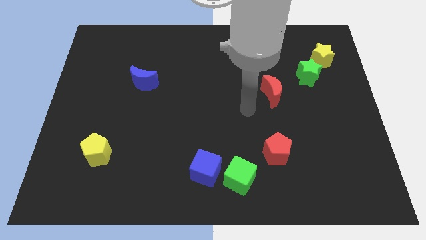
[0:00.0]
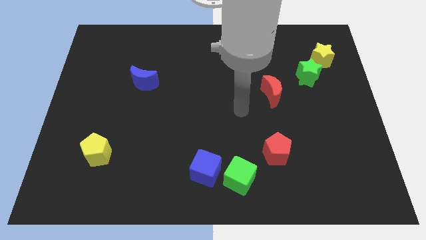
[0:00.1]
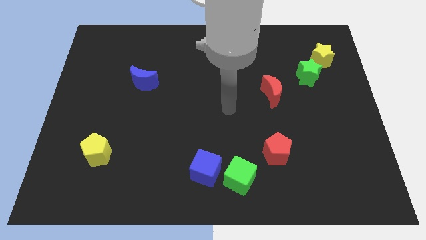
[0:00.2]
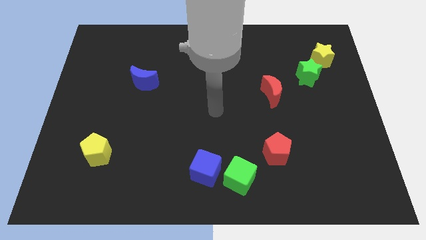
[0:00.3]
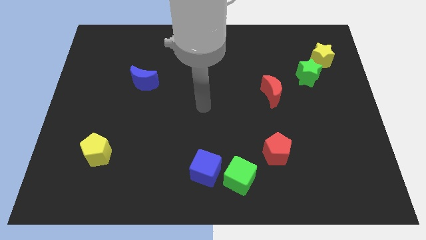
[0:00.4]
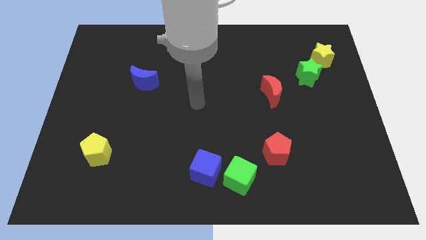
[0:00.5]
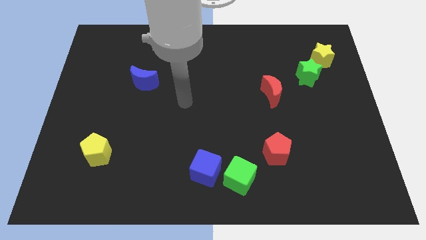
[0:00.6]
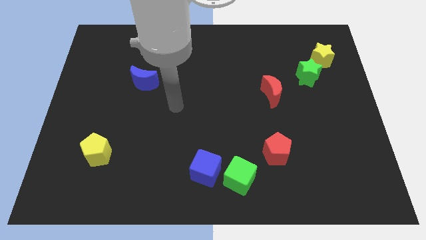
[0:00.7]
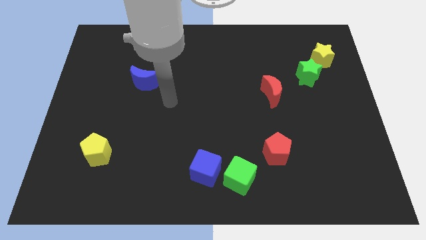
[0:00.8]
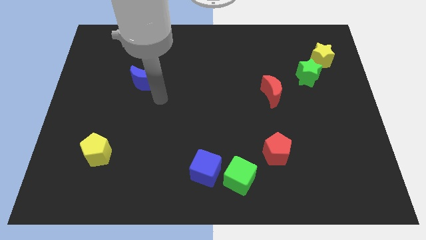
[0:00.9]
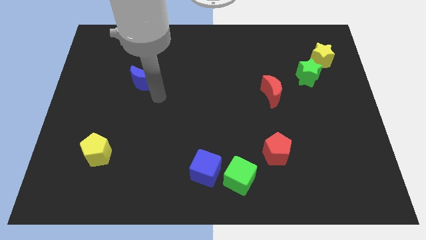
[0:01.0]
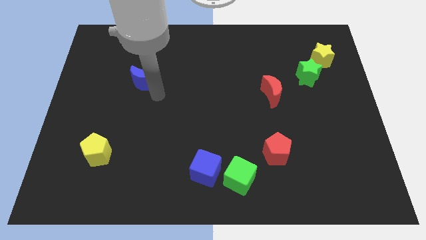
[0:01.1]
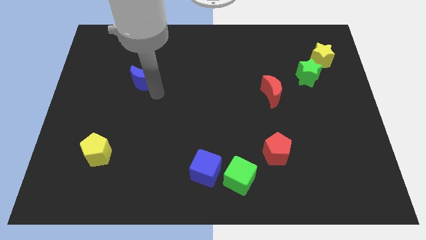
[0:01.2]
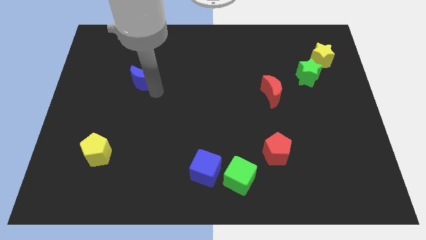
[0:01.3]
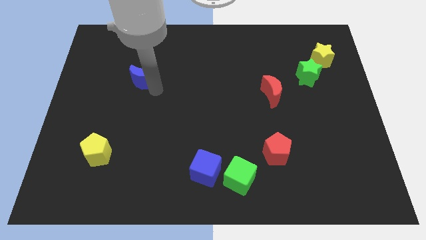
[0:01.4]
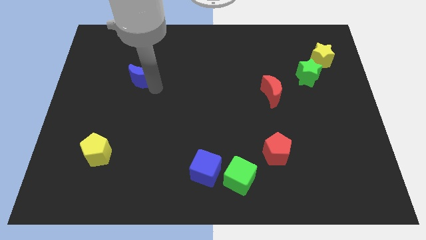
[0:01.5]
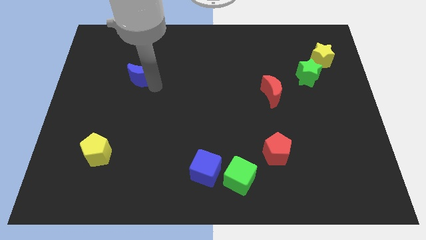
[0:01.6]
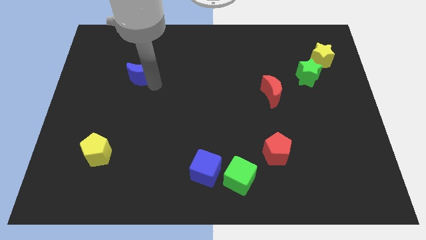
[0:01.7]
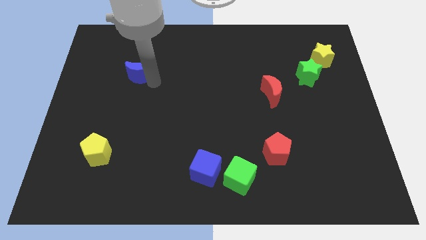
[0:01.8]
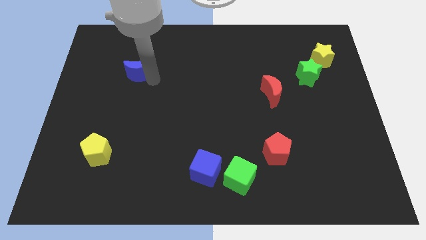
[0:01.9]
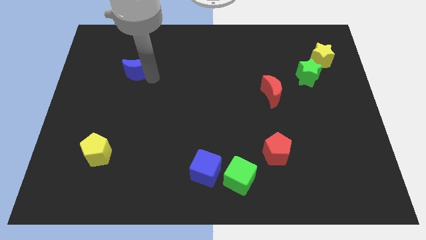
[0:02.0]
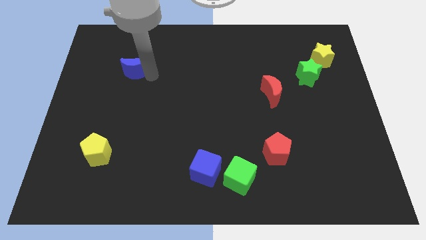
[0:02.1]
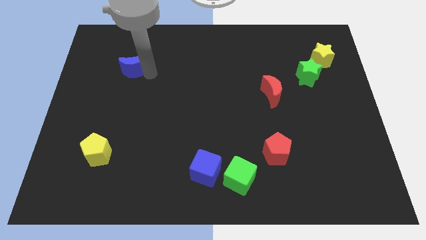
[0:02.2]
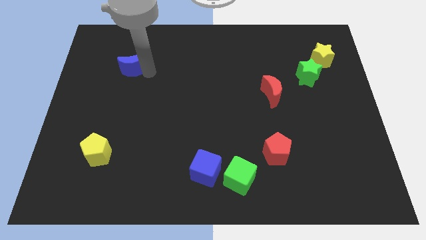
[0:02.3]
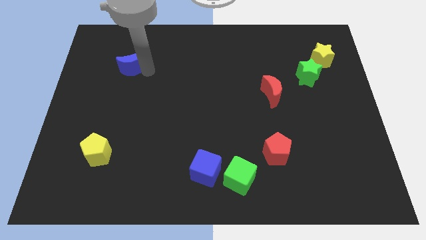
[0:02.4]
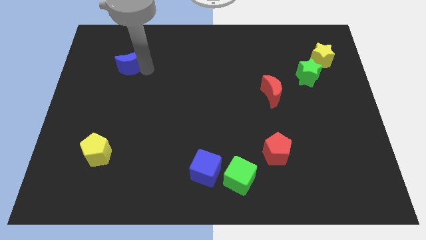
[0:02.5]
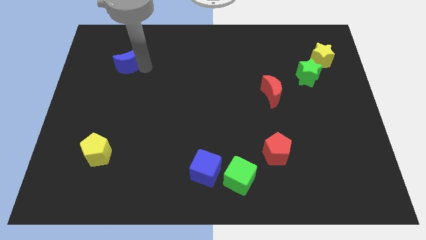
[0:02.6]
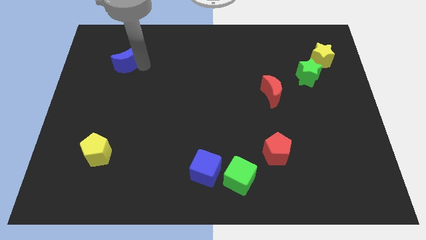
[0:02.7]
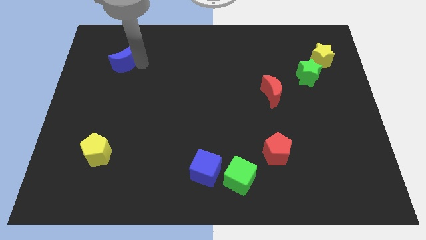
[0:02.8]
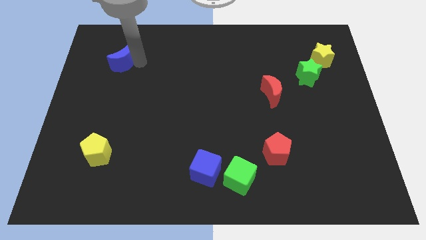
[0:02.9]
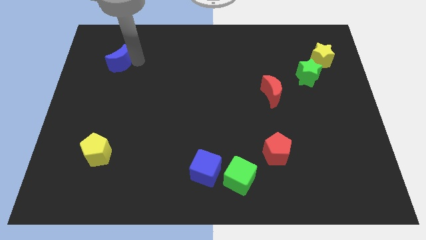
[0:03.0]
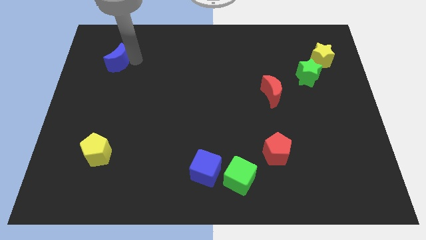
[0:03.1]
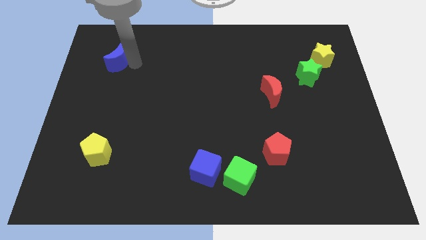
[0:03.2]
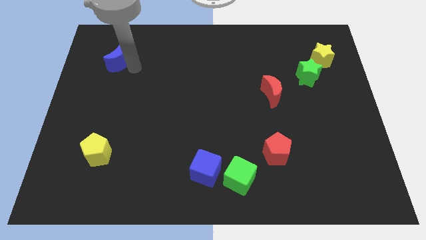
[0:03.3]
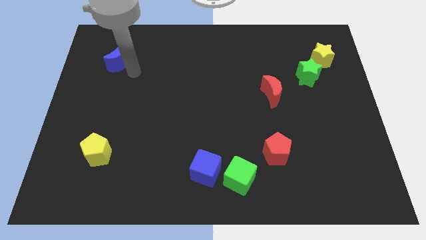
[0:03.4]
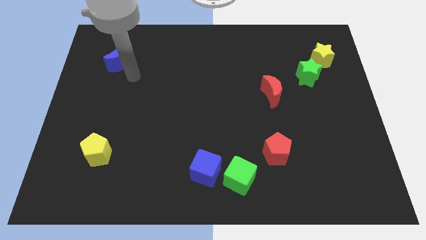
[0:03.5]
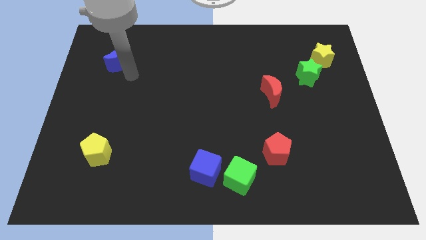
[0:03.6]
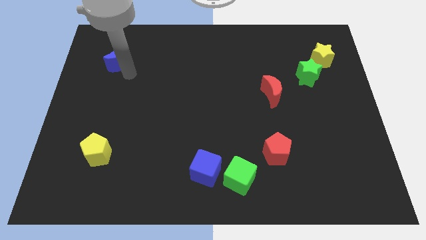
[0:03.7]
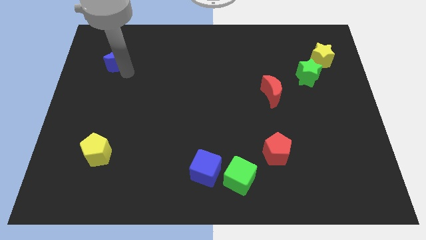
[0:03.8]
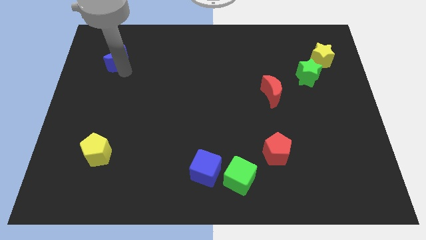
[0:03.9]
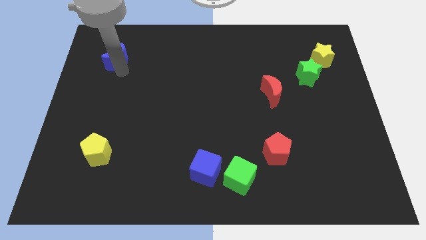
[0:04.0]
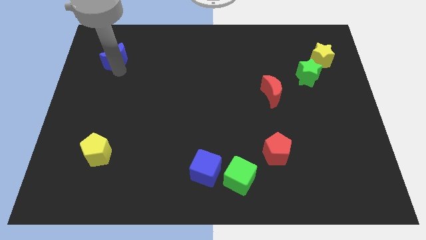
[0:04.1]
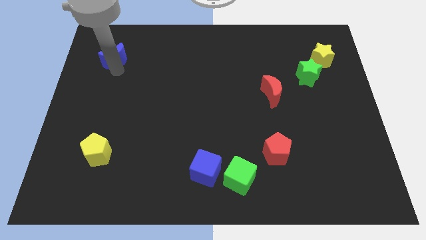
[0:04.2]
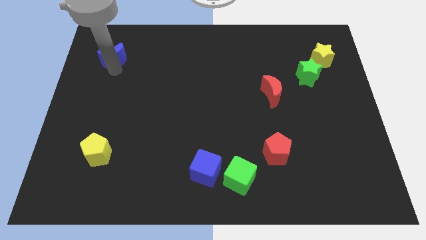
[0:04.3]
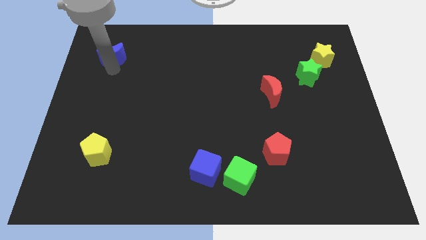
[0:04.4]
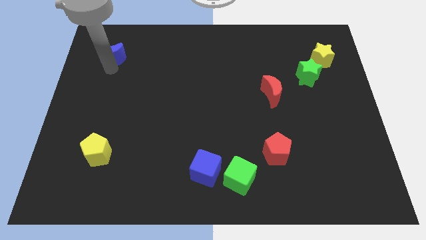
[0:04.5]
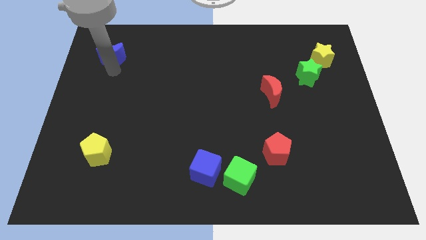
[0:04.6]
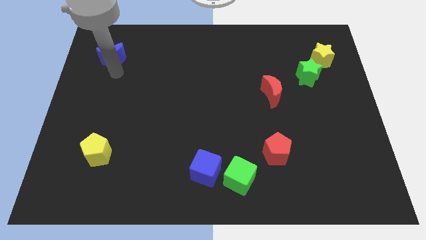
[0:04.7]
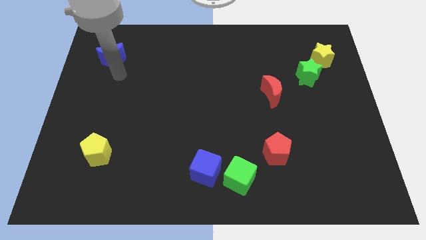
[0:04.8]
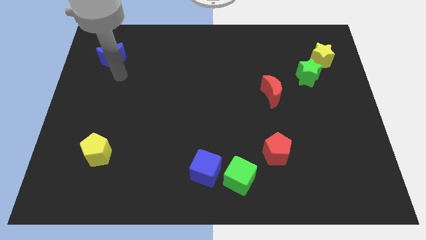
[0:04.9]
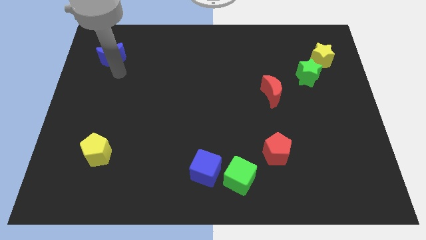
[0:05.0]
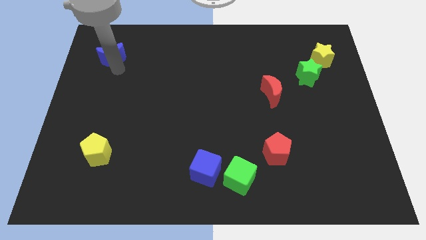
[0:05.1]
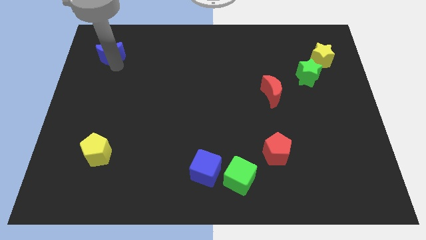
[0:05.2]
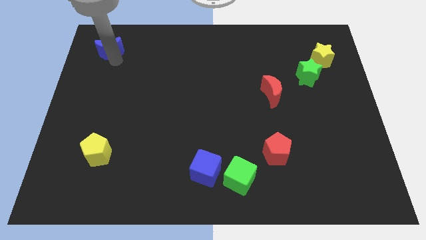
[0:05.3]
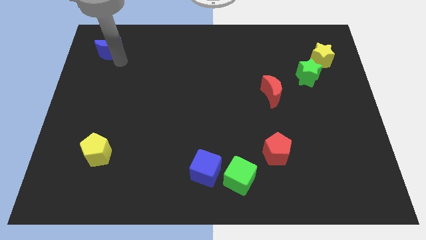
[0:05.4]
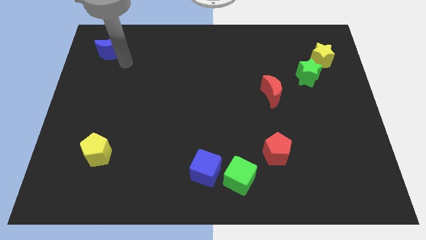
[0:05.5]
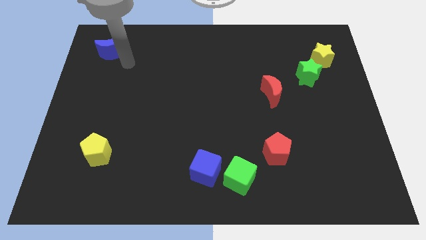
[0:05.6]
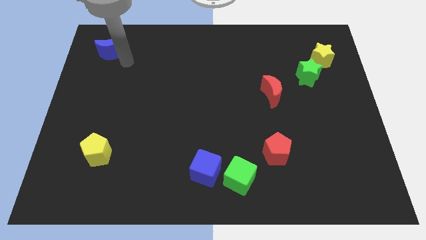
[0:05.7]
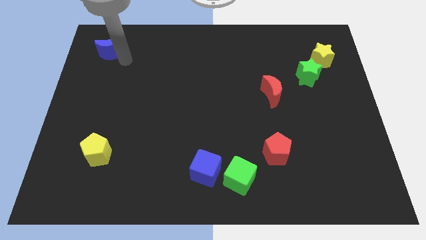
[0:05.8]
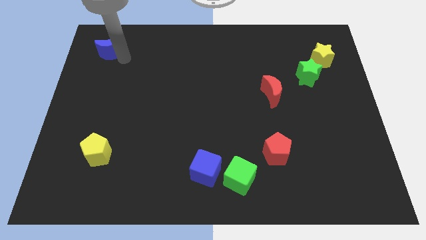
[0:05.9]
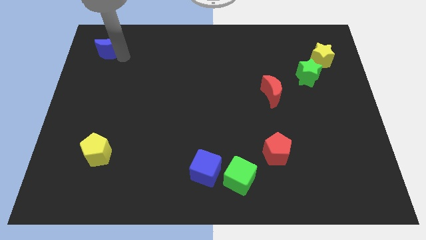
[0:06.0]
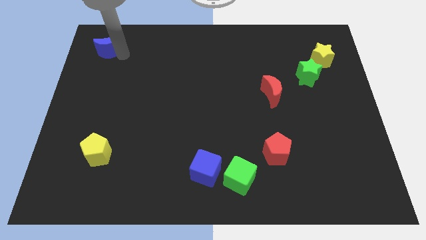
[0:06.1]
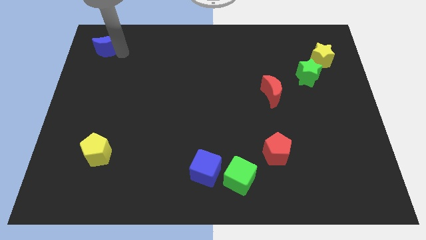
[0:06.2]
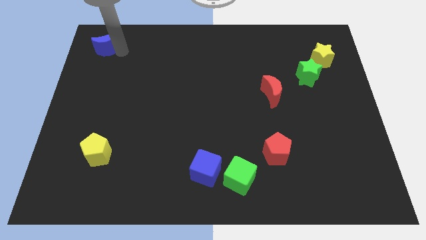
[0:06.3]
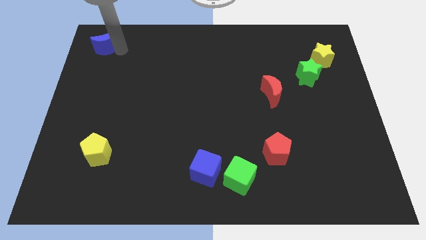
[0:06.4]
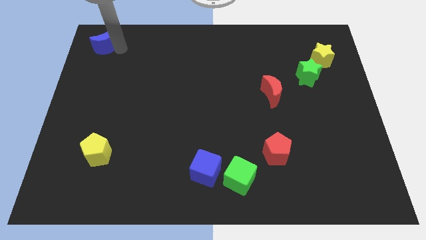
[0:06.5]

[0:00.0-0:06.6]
slide the blue moon to the top left

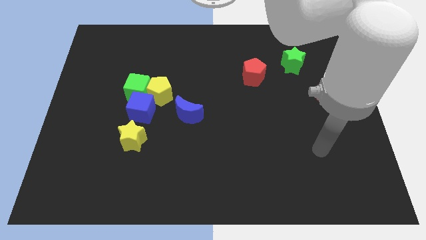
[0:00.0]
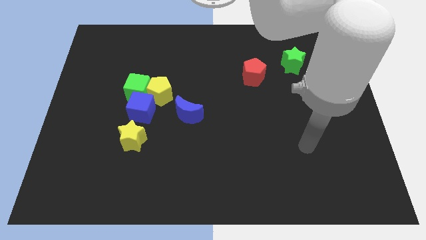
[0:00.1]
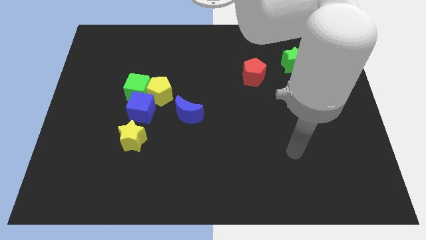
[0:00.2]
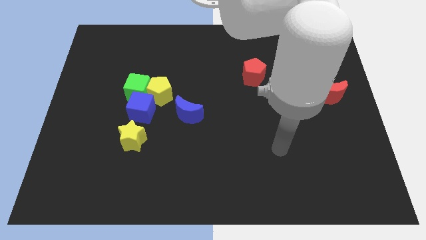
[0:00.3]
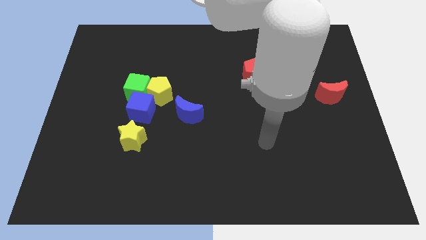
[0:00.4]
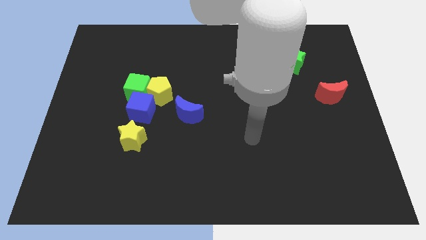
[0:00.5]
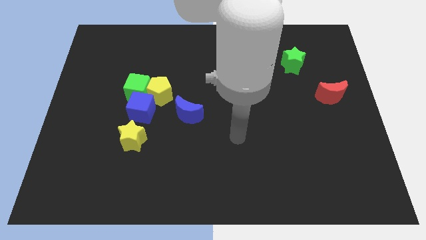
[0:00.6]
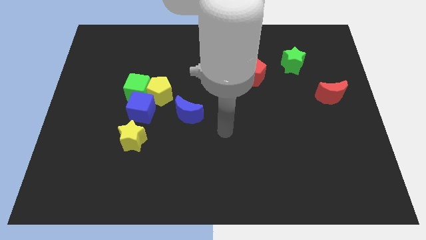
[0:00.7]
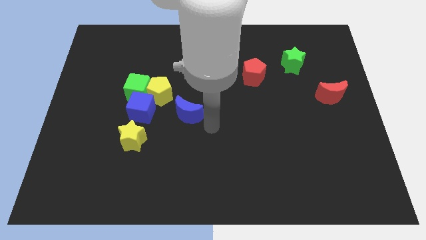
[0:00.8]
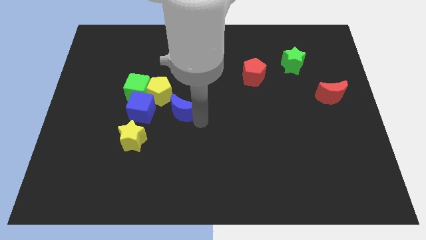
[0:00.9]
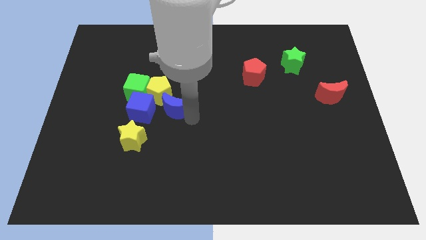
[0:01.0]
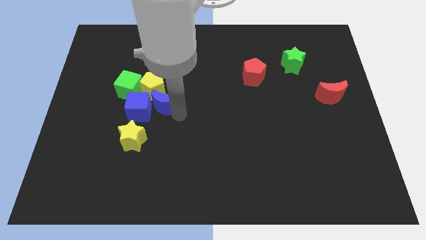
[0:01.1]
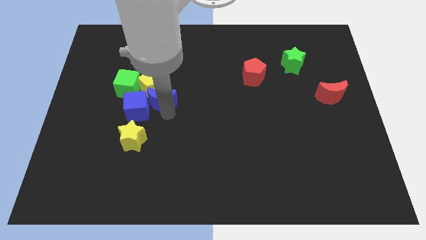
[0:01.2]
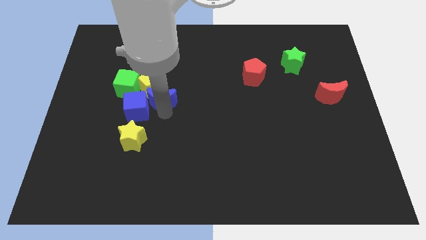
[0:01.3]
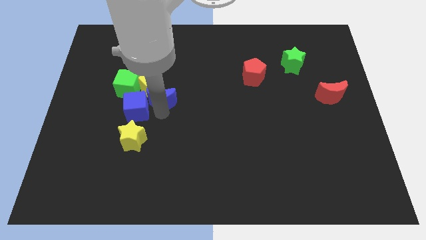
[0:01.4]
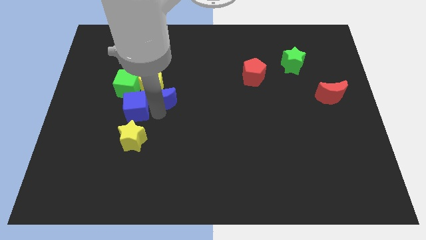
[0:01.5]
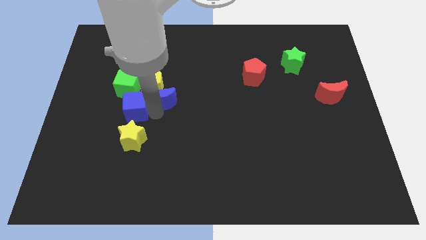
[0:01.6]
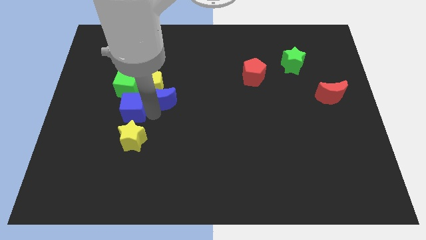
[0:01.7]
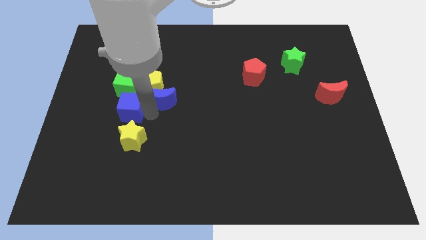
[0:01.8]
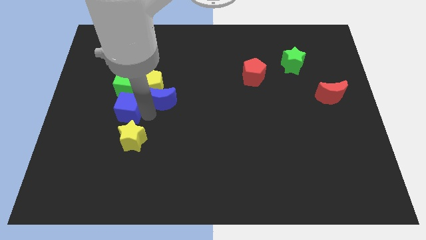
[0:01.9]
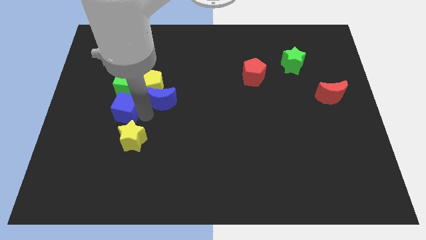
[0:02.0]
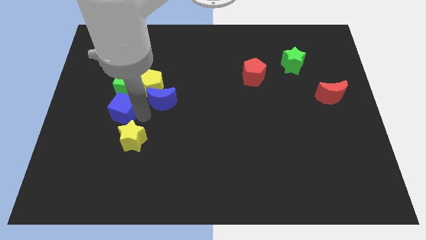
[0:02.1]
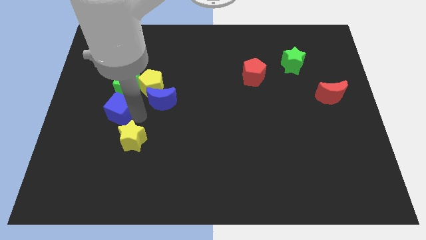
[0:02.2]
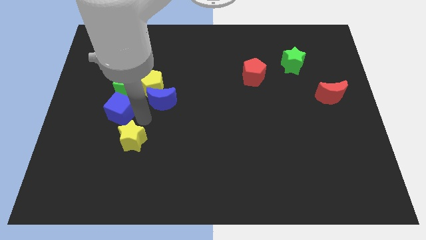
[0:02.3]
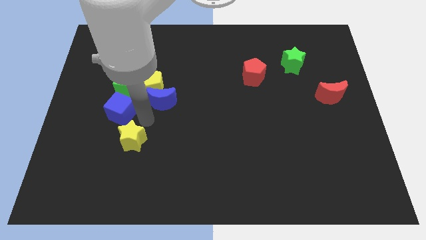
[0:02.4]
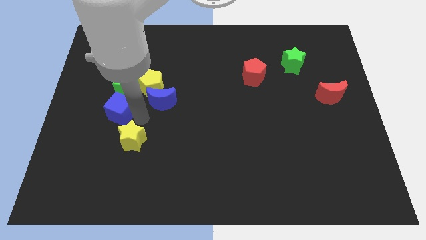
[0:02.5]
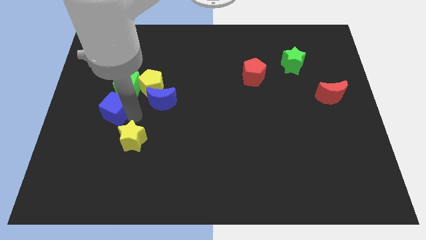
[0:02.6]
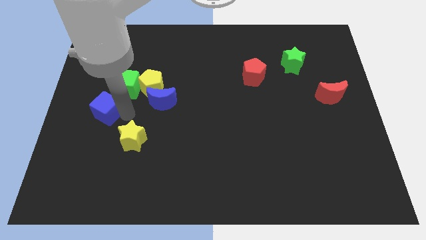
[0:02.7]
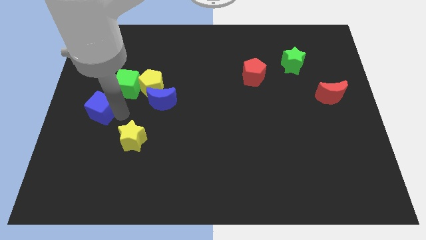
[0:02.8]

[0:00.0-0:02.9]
move the blue cube to the left side
